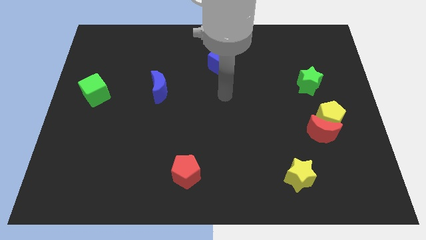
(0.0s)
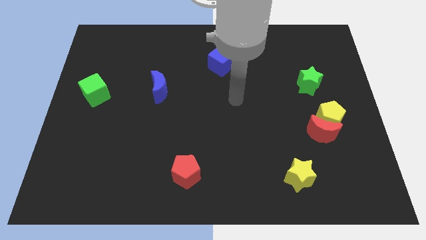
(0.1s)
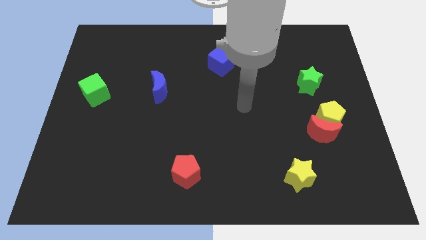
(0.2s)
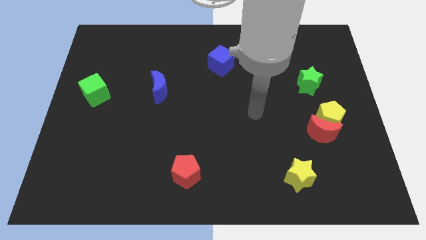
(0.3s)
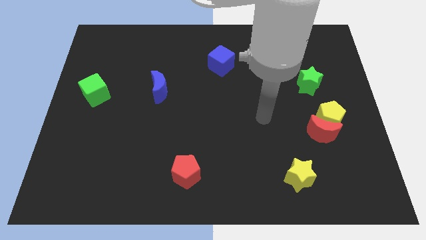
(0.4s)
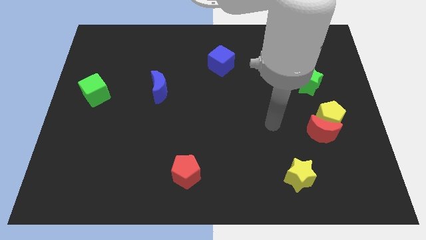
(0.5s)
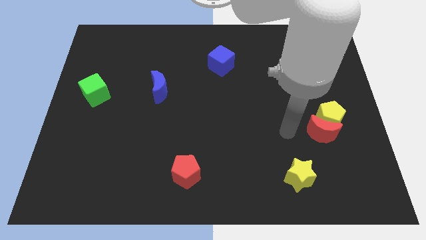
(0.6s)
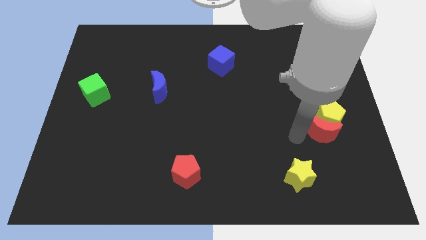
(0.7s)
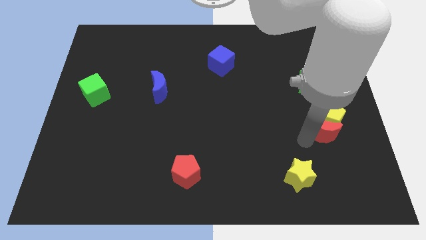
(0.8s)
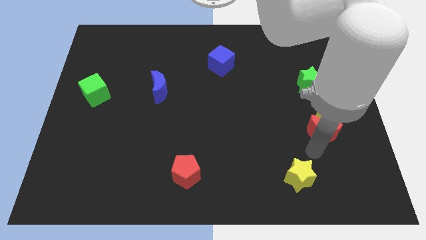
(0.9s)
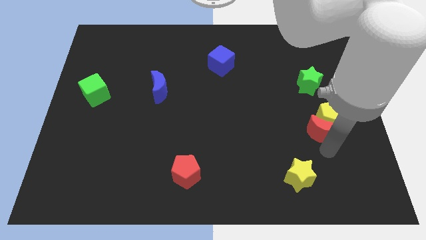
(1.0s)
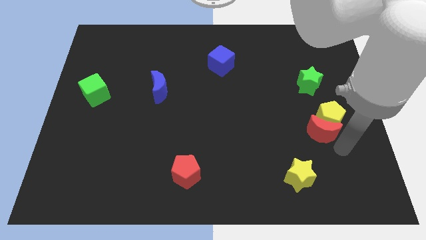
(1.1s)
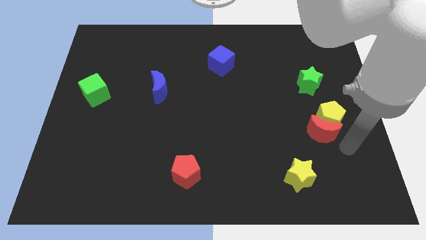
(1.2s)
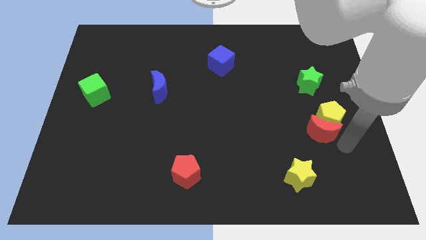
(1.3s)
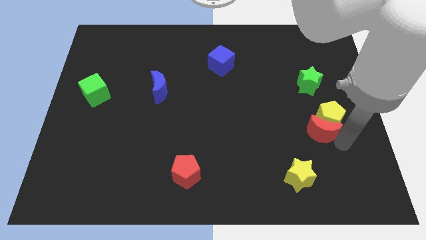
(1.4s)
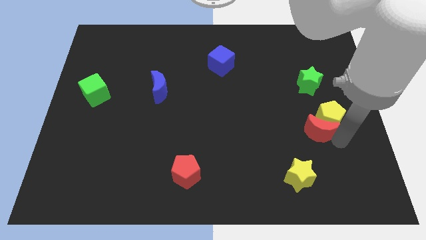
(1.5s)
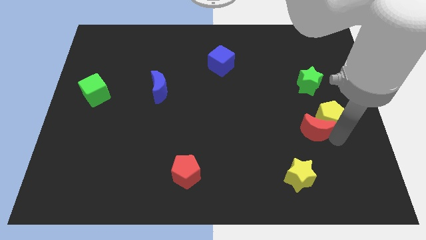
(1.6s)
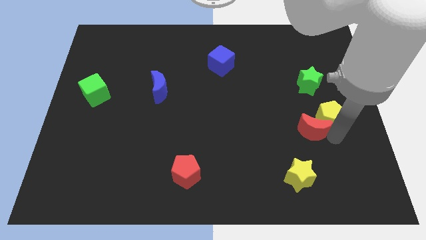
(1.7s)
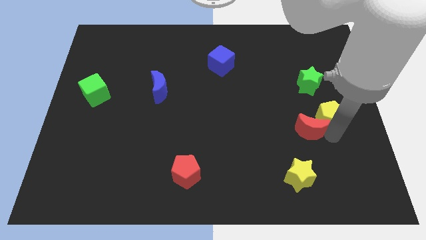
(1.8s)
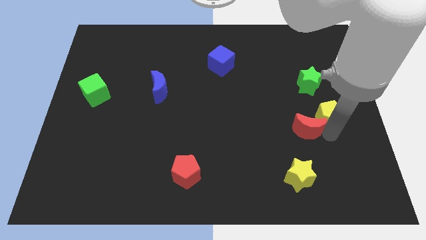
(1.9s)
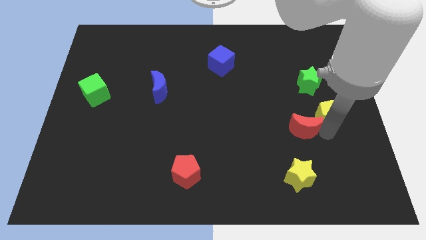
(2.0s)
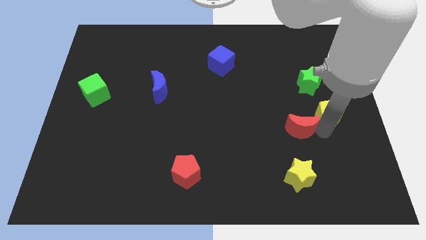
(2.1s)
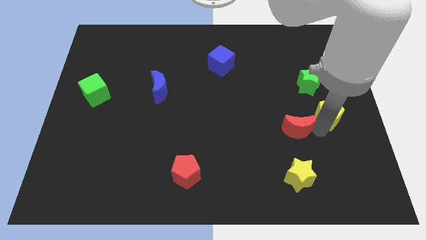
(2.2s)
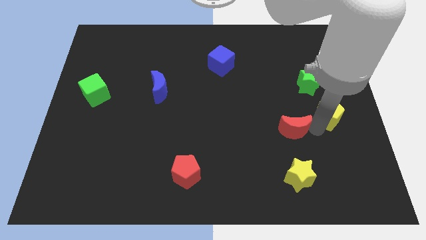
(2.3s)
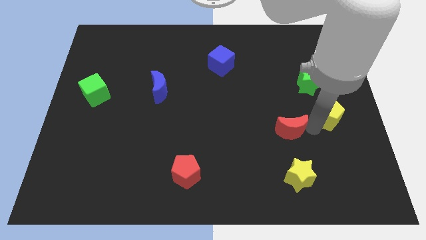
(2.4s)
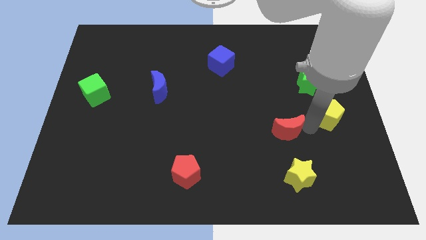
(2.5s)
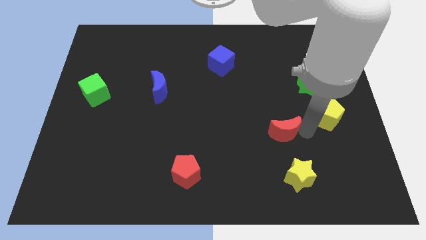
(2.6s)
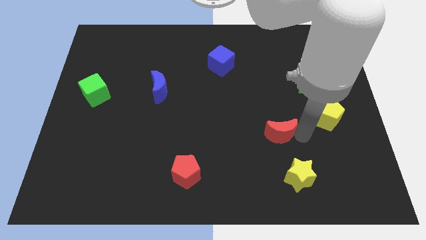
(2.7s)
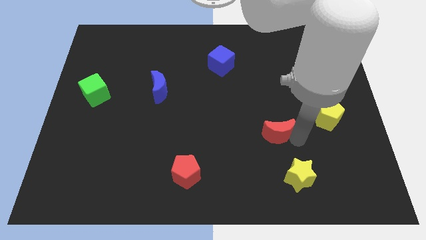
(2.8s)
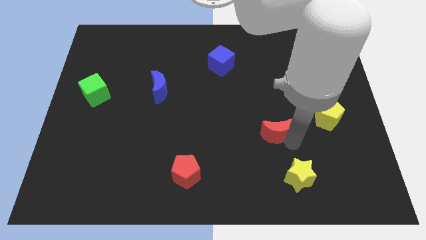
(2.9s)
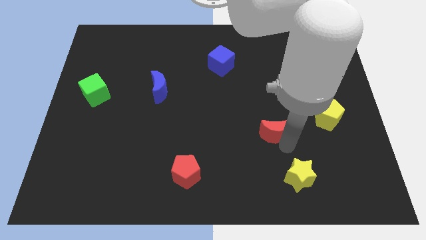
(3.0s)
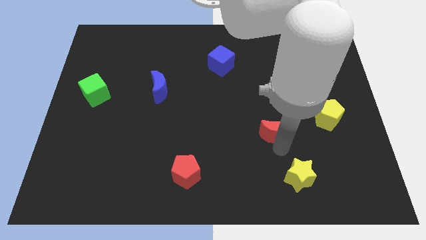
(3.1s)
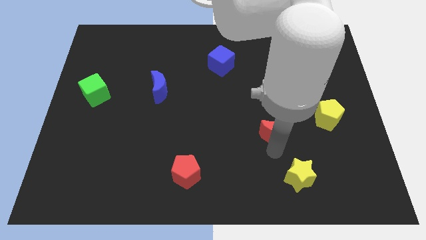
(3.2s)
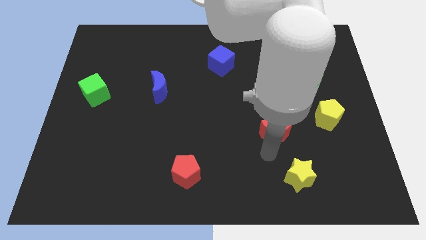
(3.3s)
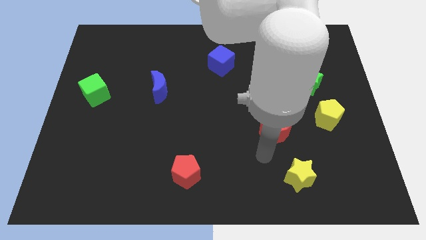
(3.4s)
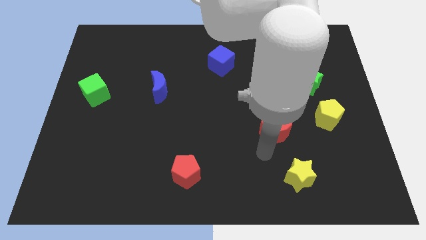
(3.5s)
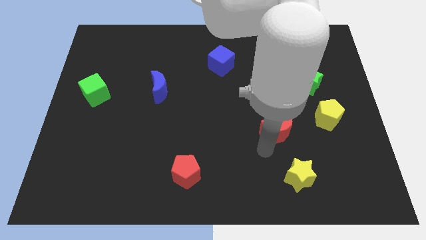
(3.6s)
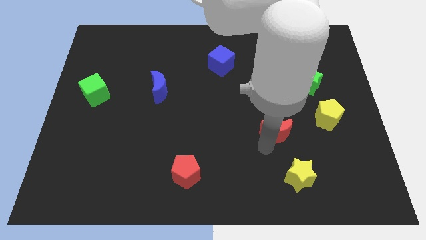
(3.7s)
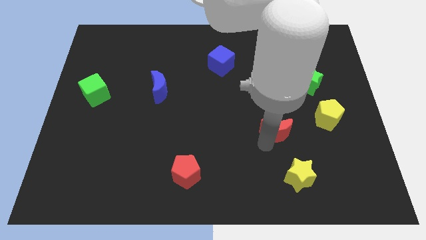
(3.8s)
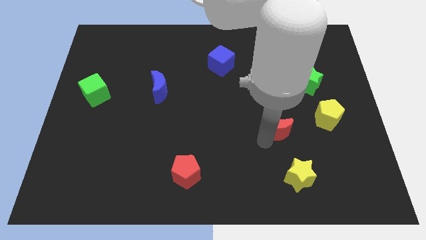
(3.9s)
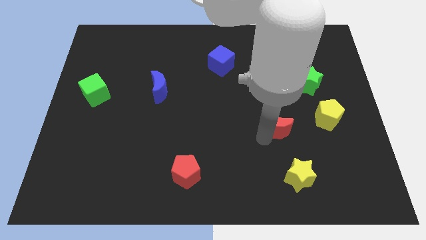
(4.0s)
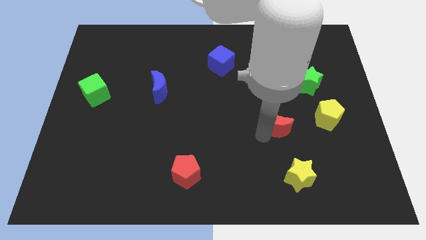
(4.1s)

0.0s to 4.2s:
move the red moon slightly diagonally upwards and left

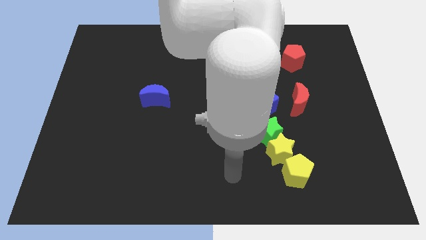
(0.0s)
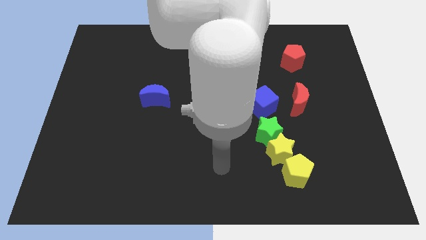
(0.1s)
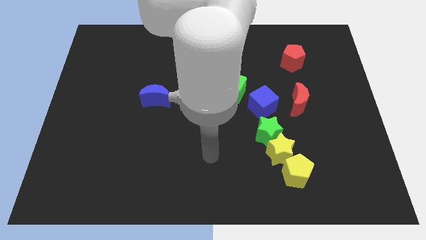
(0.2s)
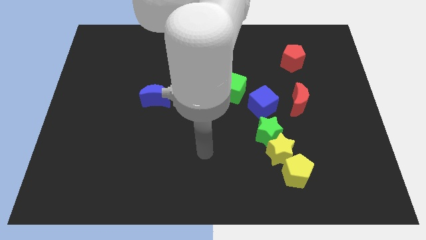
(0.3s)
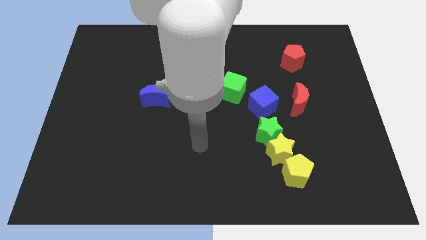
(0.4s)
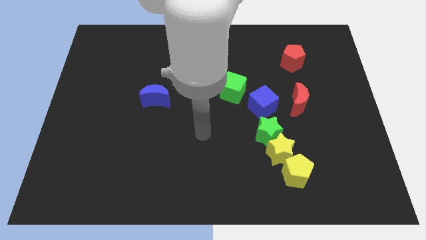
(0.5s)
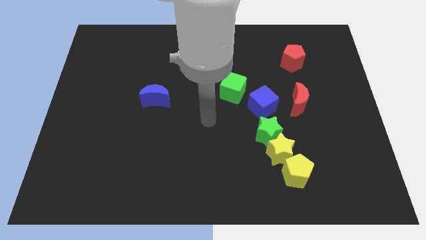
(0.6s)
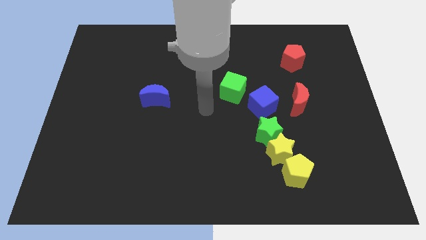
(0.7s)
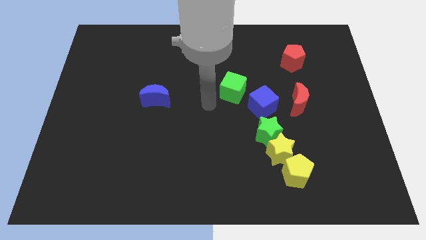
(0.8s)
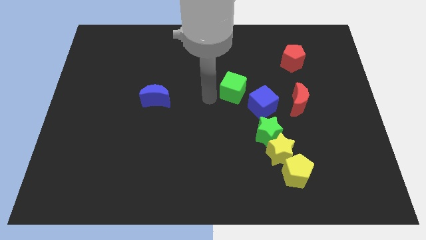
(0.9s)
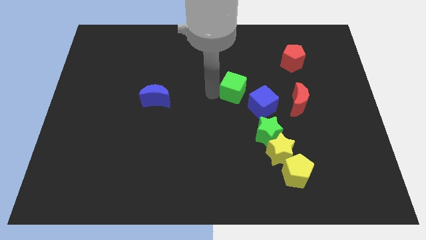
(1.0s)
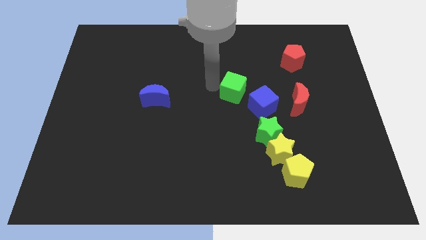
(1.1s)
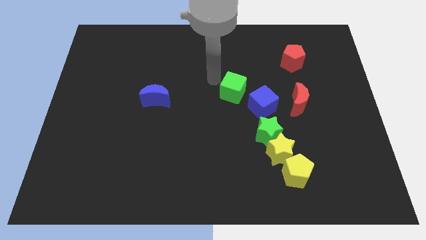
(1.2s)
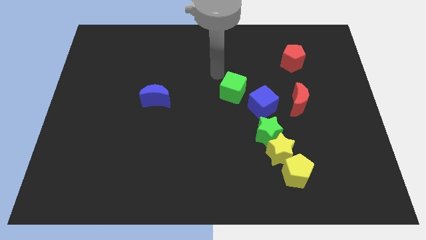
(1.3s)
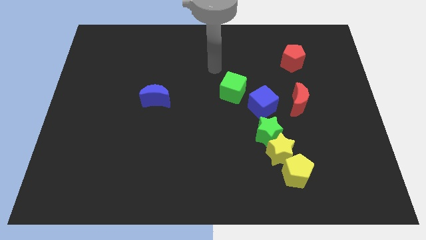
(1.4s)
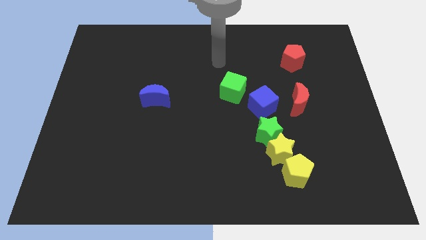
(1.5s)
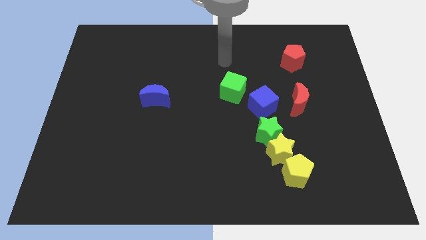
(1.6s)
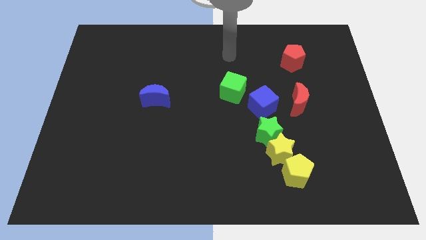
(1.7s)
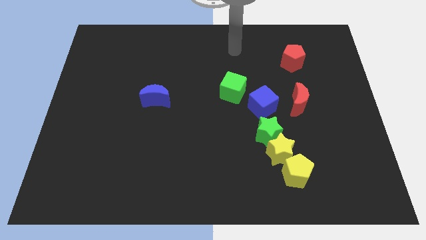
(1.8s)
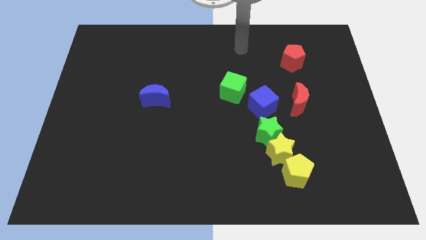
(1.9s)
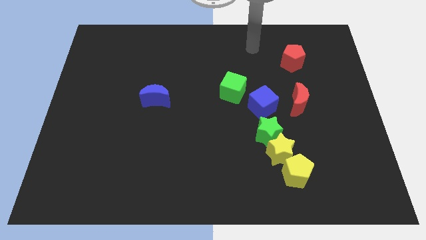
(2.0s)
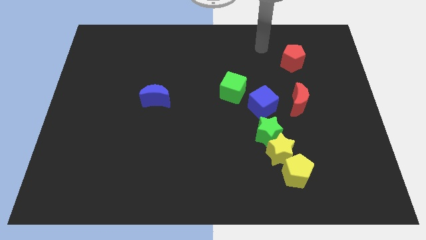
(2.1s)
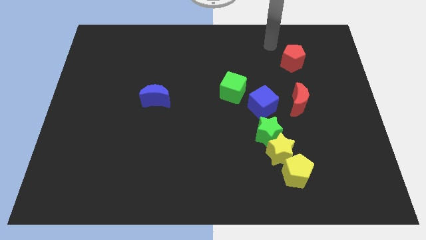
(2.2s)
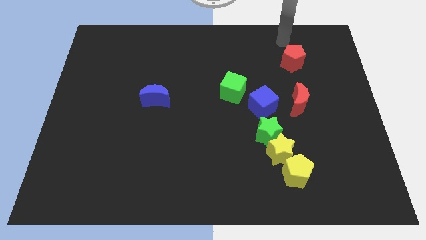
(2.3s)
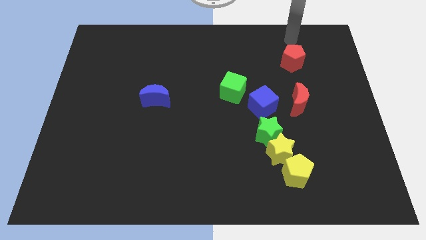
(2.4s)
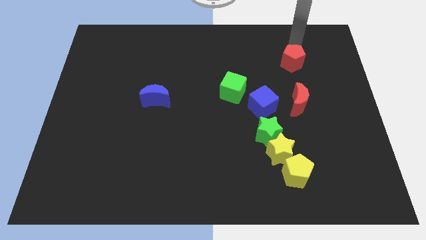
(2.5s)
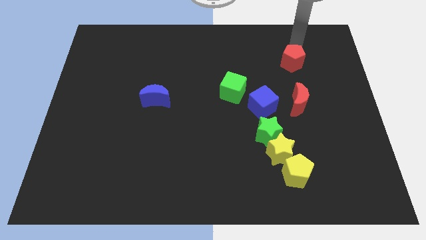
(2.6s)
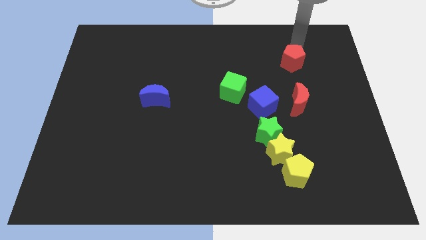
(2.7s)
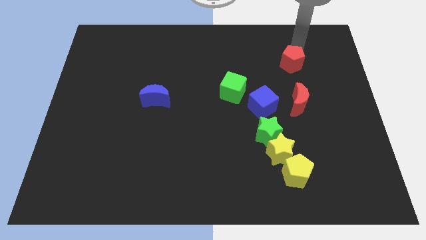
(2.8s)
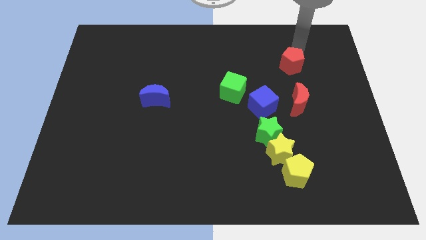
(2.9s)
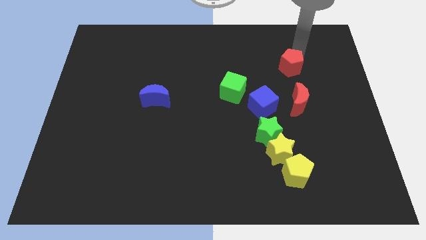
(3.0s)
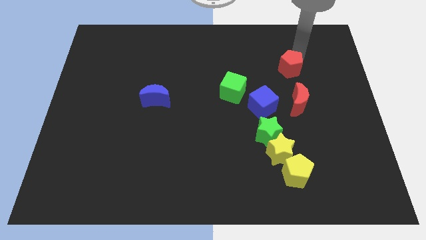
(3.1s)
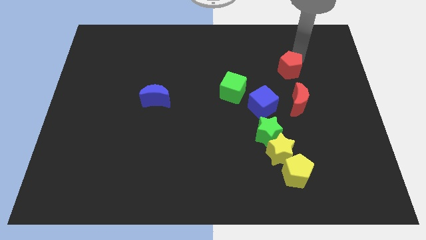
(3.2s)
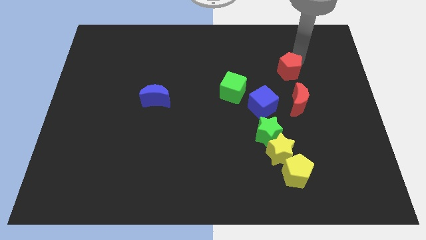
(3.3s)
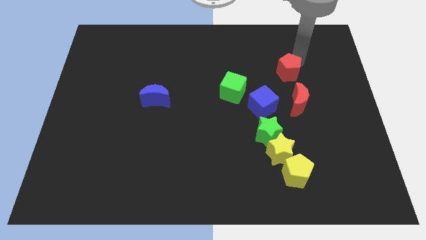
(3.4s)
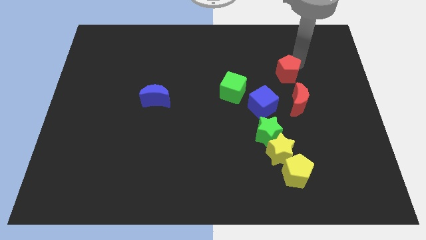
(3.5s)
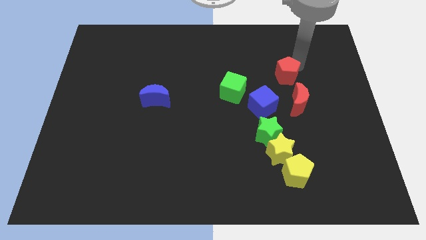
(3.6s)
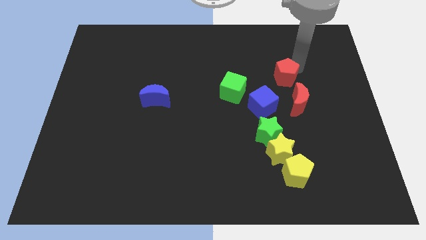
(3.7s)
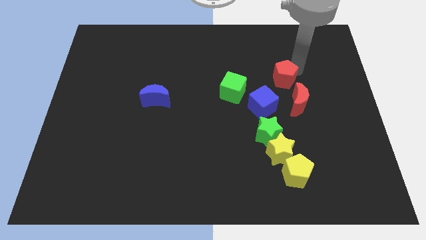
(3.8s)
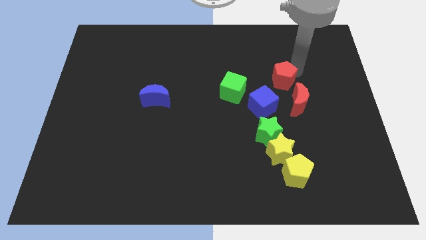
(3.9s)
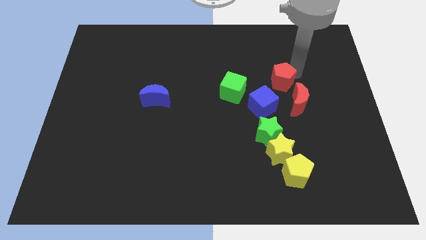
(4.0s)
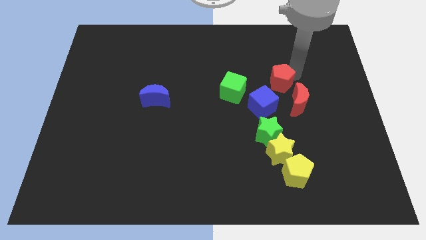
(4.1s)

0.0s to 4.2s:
slide the red pentagon a bit down

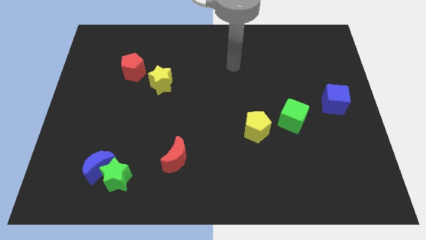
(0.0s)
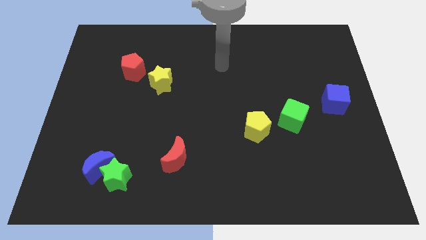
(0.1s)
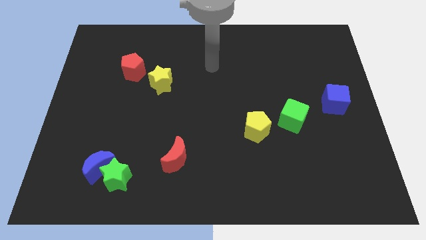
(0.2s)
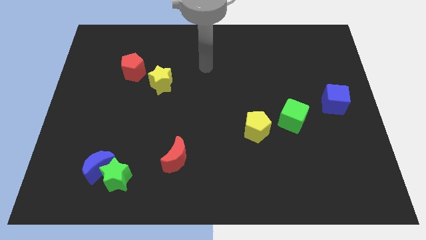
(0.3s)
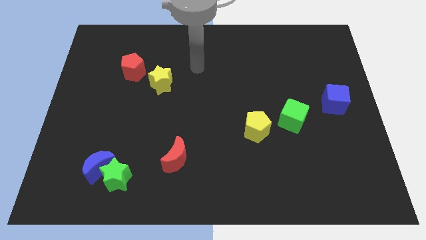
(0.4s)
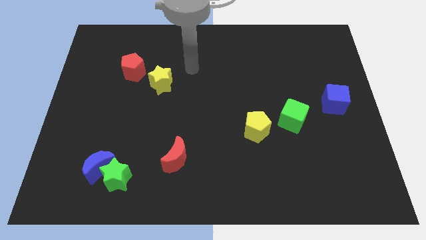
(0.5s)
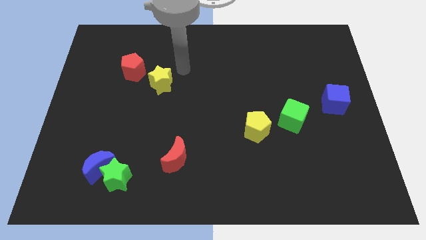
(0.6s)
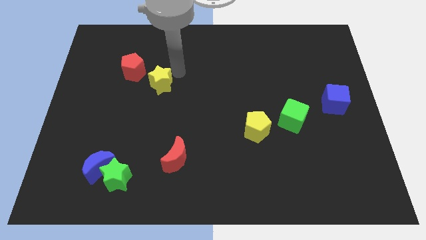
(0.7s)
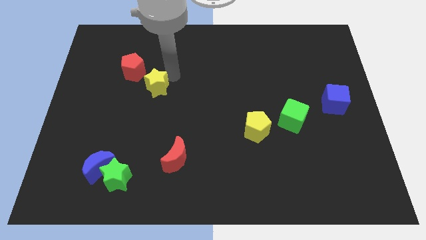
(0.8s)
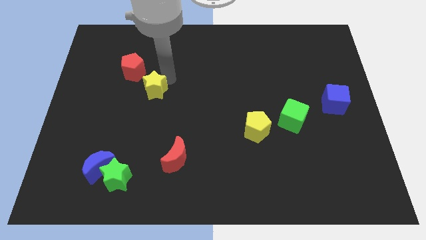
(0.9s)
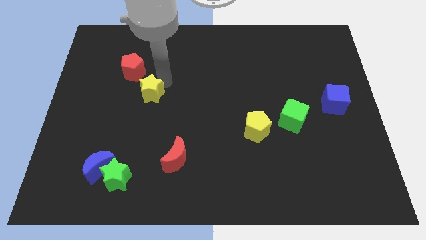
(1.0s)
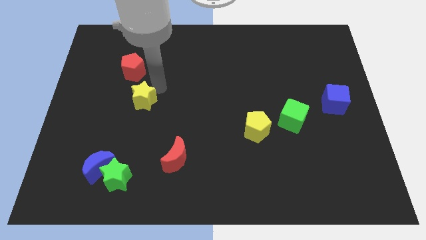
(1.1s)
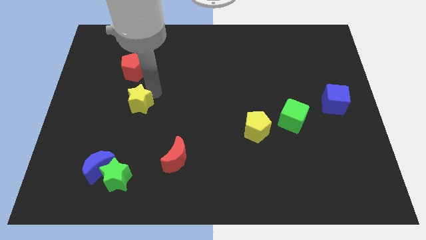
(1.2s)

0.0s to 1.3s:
slide the yellow star downwards and left a little
